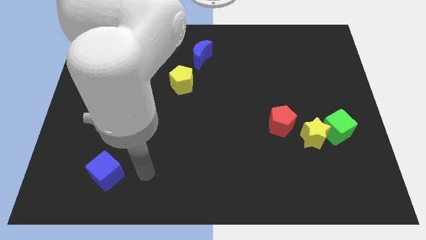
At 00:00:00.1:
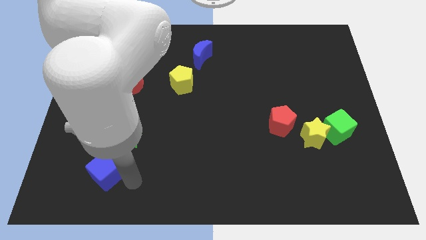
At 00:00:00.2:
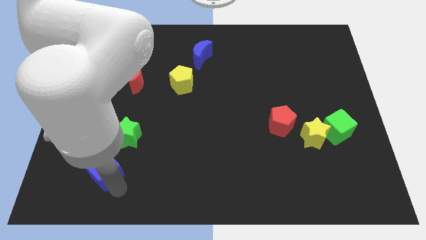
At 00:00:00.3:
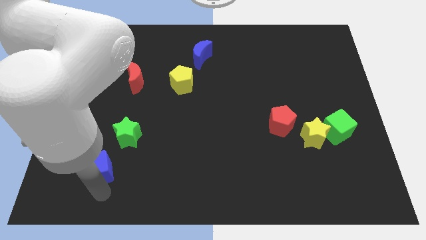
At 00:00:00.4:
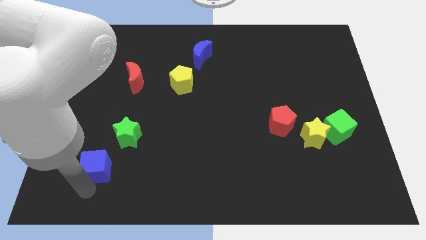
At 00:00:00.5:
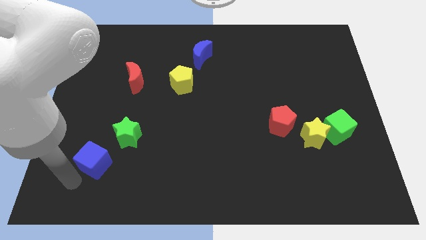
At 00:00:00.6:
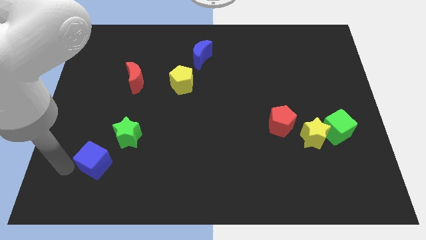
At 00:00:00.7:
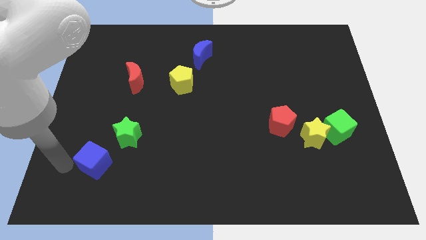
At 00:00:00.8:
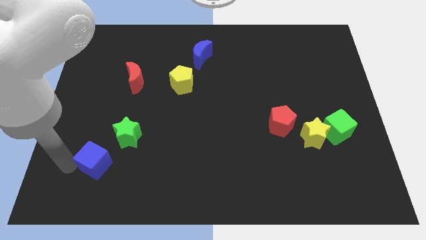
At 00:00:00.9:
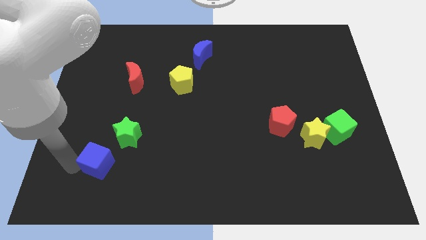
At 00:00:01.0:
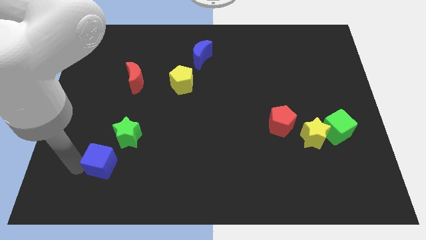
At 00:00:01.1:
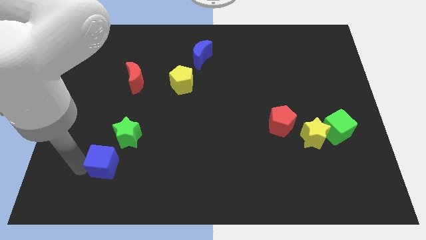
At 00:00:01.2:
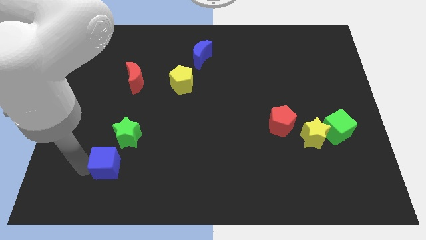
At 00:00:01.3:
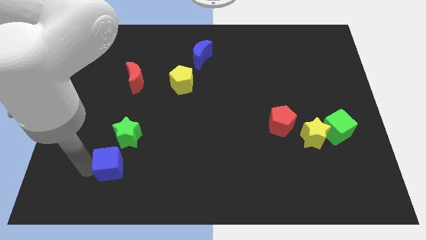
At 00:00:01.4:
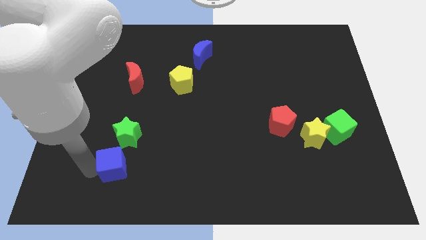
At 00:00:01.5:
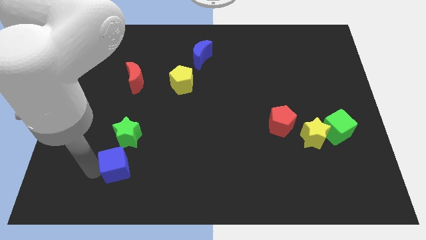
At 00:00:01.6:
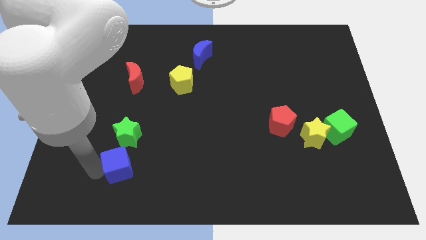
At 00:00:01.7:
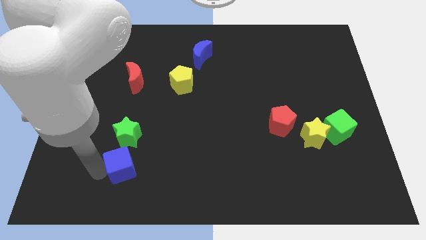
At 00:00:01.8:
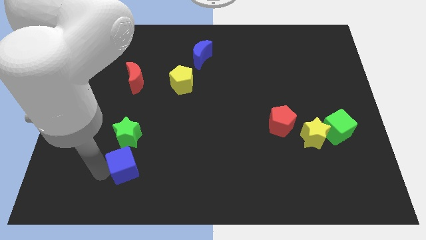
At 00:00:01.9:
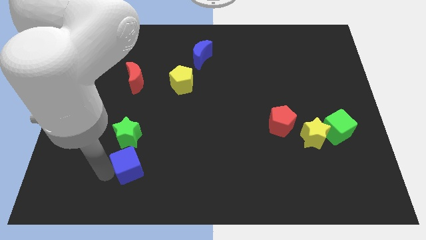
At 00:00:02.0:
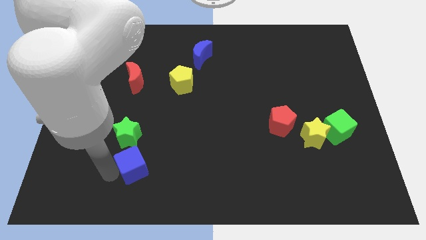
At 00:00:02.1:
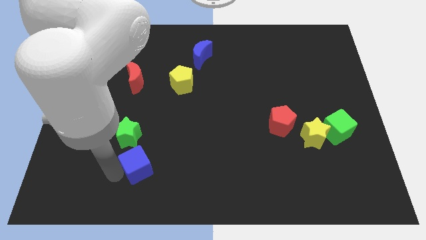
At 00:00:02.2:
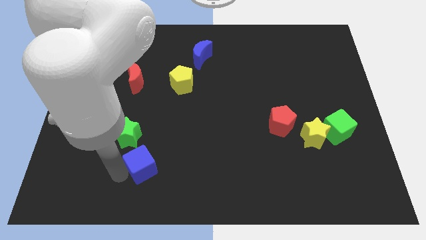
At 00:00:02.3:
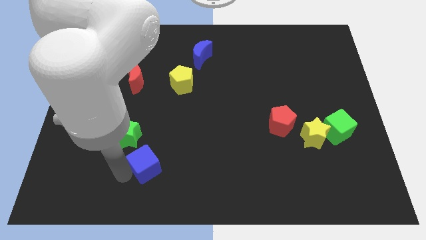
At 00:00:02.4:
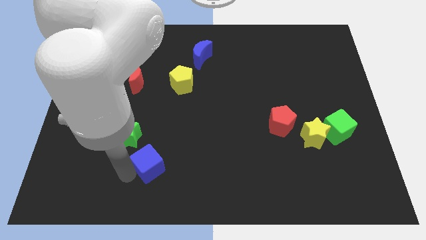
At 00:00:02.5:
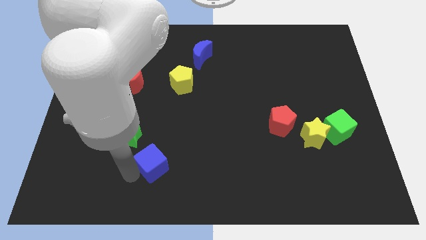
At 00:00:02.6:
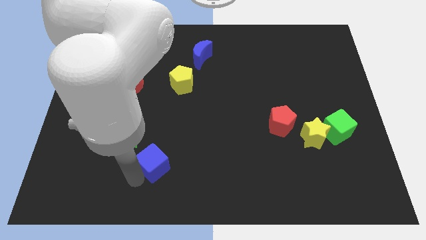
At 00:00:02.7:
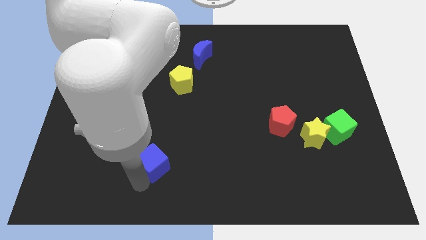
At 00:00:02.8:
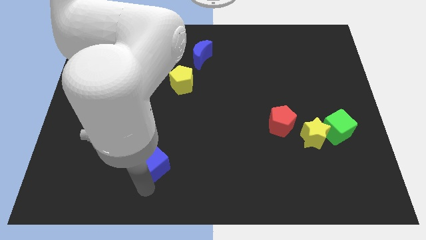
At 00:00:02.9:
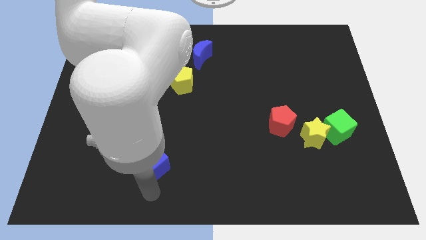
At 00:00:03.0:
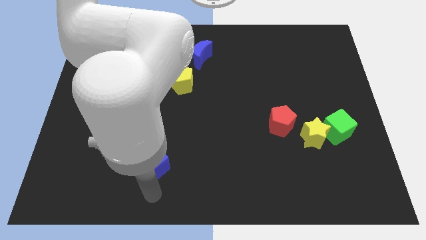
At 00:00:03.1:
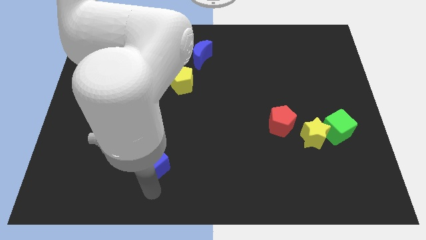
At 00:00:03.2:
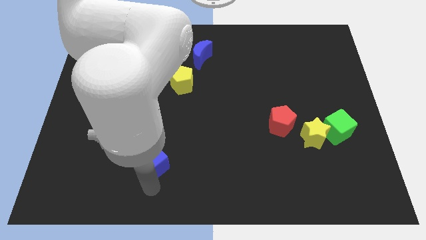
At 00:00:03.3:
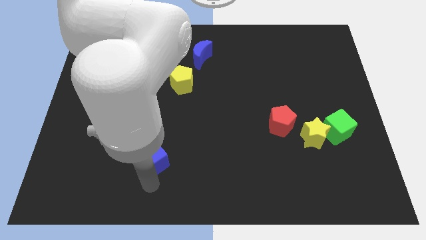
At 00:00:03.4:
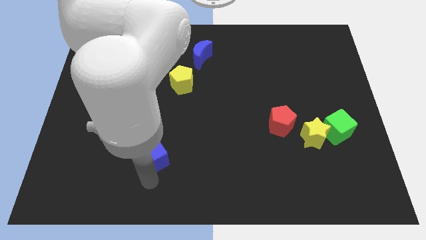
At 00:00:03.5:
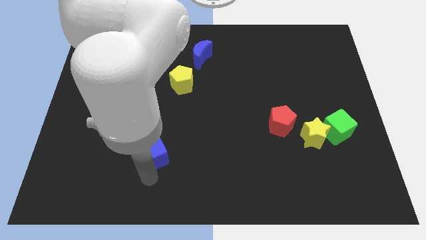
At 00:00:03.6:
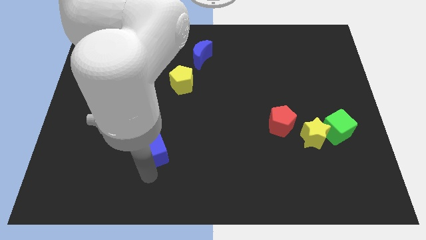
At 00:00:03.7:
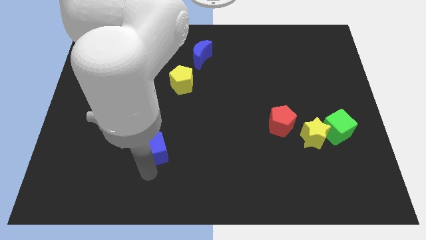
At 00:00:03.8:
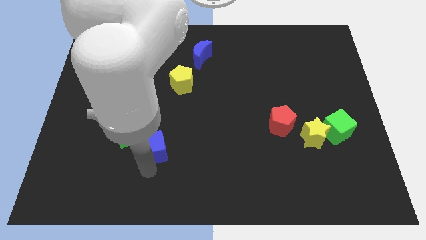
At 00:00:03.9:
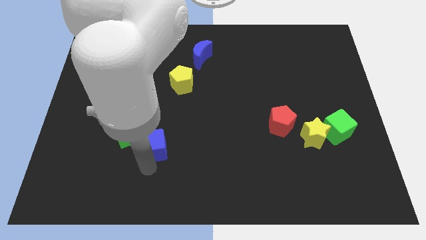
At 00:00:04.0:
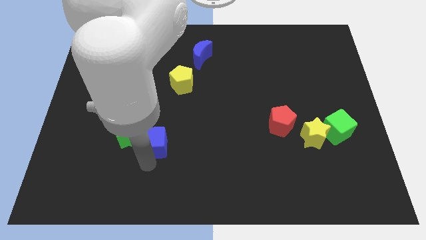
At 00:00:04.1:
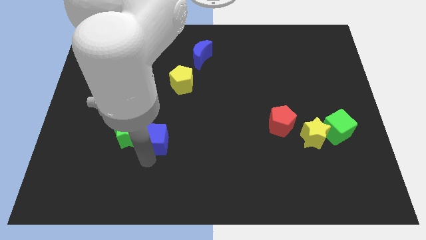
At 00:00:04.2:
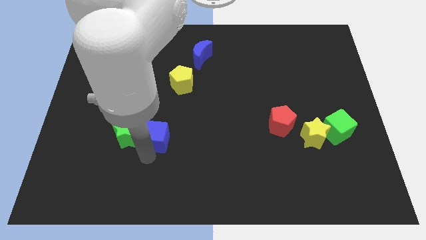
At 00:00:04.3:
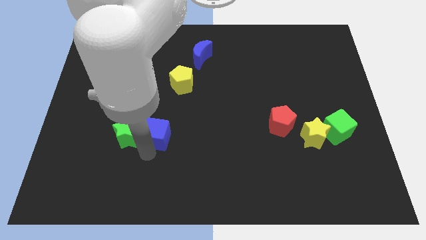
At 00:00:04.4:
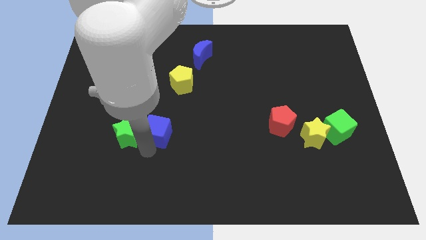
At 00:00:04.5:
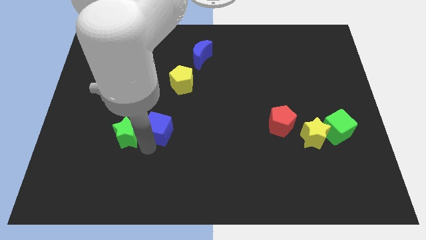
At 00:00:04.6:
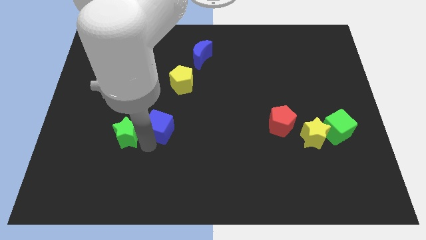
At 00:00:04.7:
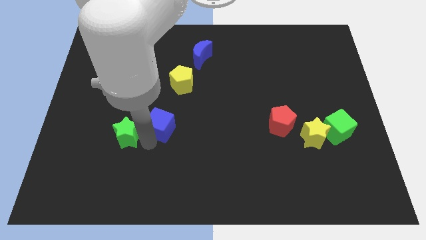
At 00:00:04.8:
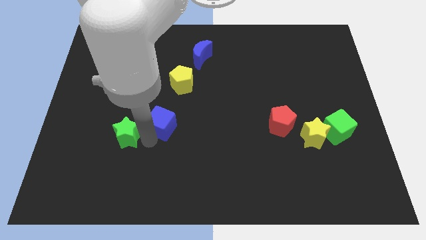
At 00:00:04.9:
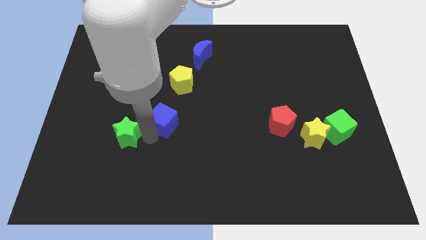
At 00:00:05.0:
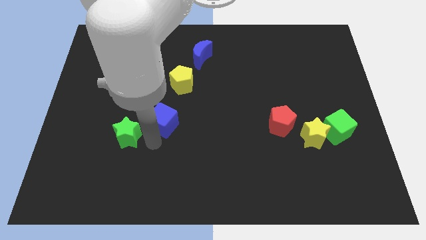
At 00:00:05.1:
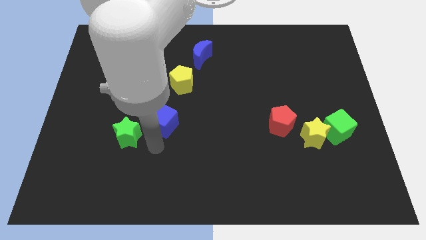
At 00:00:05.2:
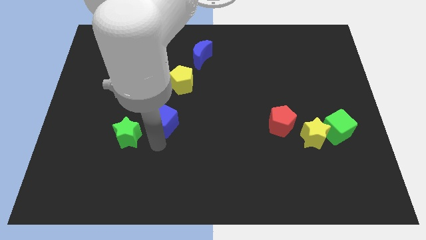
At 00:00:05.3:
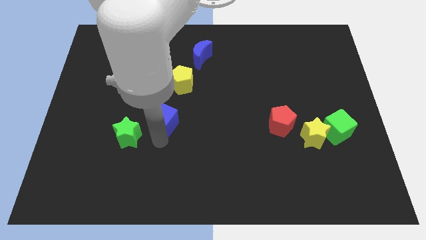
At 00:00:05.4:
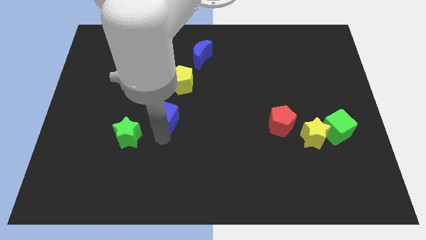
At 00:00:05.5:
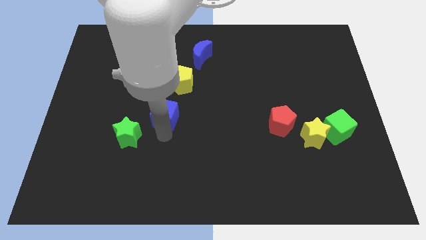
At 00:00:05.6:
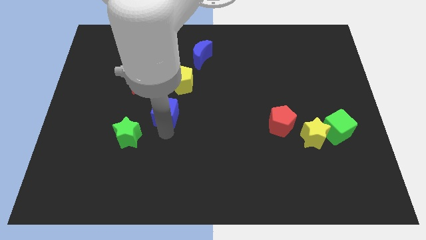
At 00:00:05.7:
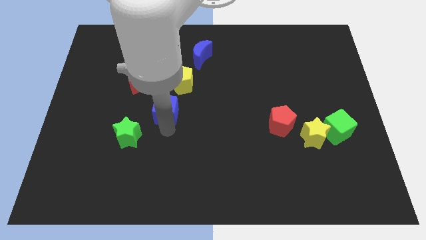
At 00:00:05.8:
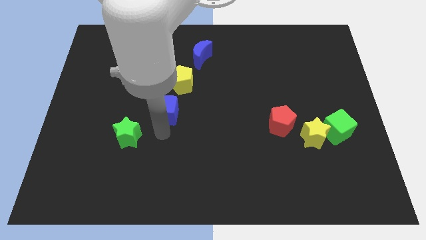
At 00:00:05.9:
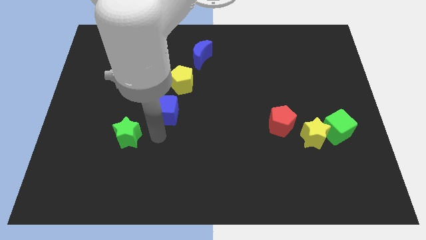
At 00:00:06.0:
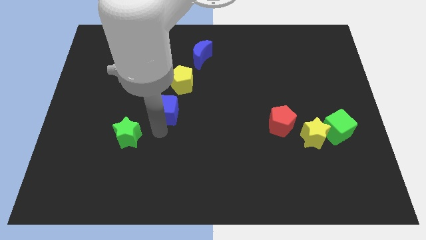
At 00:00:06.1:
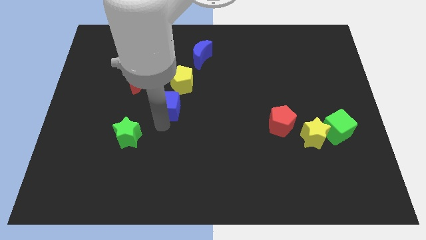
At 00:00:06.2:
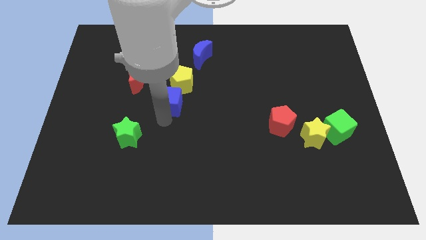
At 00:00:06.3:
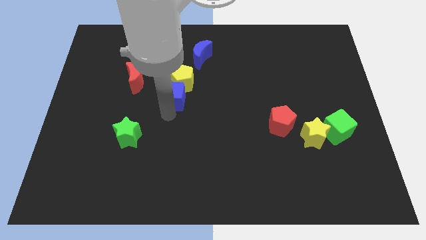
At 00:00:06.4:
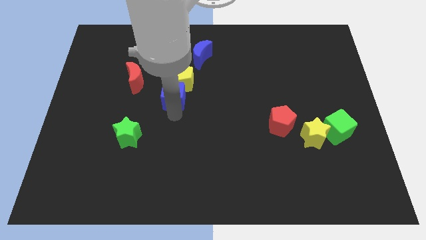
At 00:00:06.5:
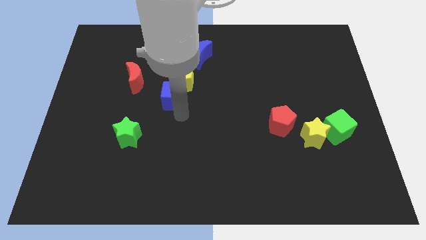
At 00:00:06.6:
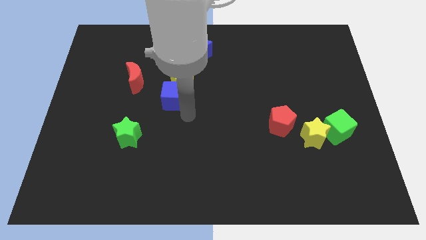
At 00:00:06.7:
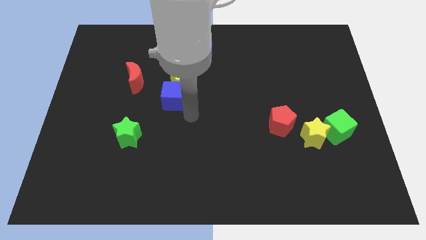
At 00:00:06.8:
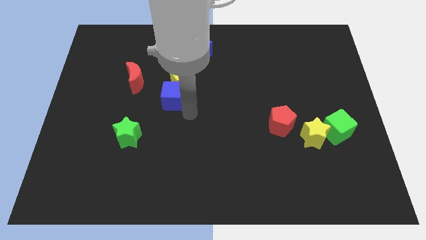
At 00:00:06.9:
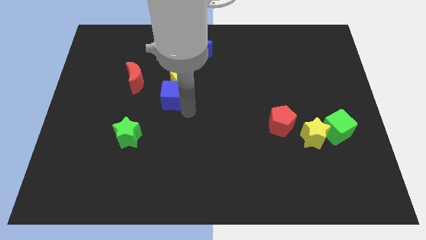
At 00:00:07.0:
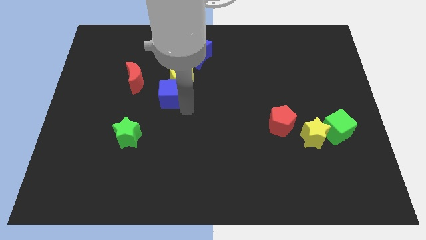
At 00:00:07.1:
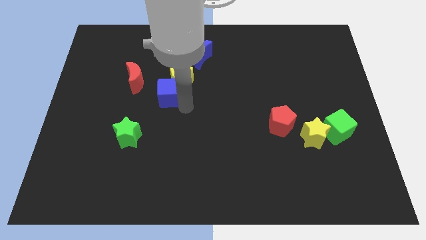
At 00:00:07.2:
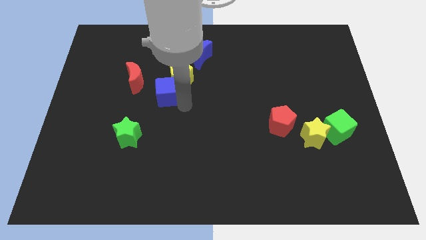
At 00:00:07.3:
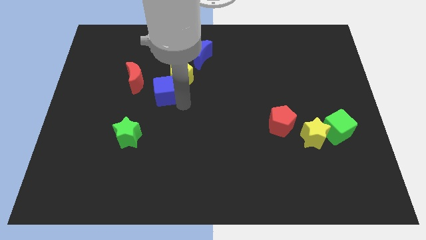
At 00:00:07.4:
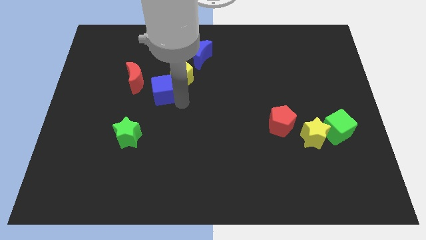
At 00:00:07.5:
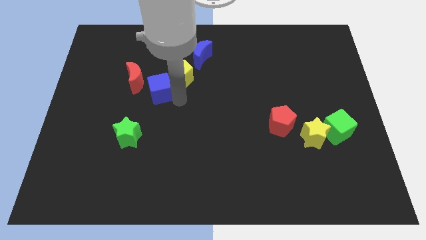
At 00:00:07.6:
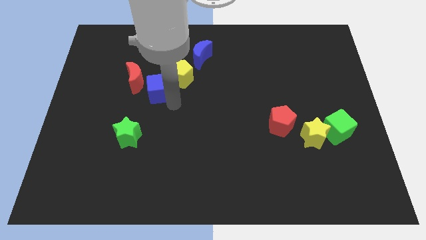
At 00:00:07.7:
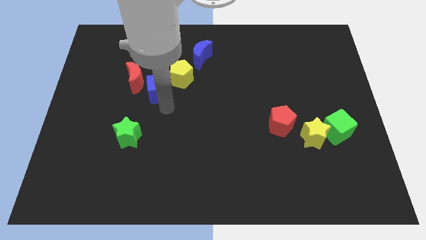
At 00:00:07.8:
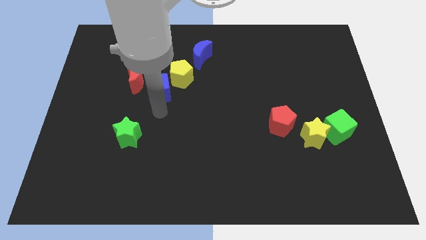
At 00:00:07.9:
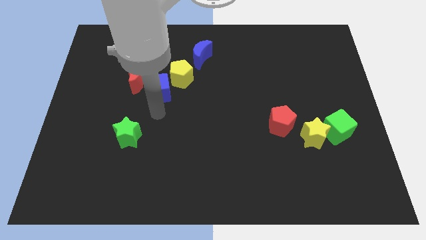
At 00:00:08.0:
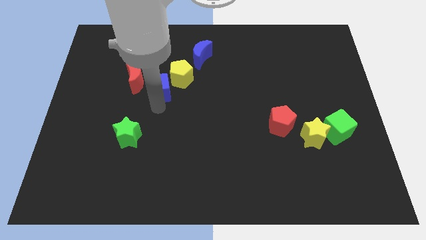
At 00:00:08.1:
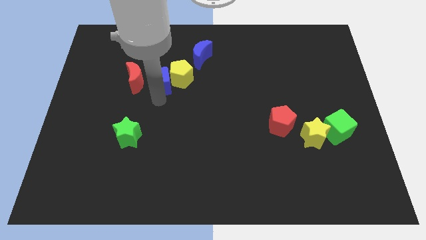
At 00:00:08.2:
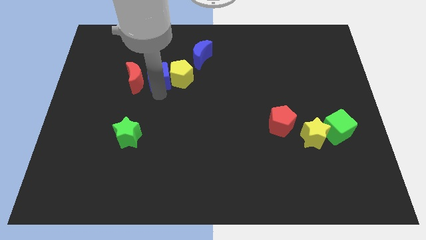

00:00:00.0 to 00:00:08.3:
put the blue cube to the top left side of the yellow pentagon
